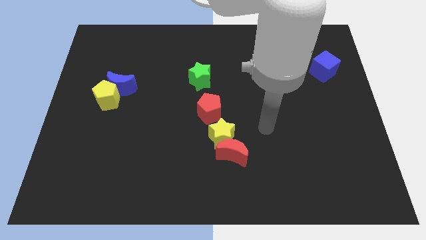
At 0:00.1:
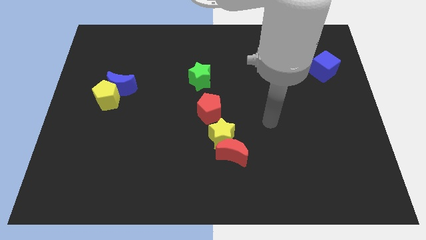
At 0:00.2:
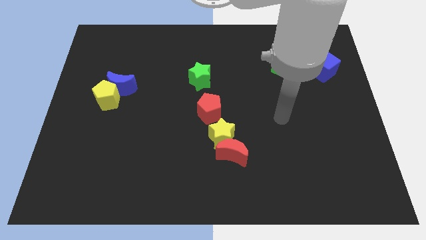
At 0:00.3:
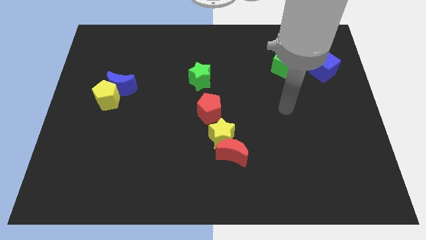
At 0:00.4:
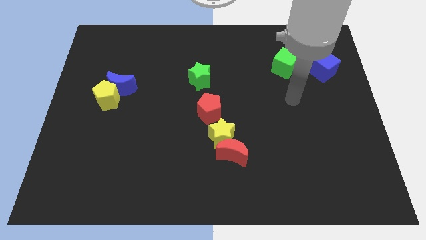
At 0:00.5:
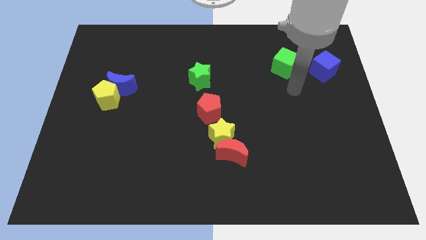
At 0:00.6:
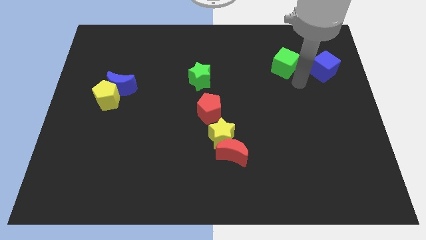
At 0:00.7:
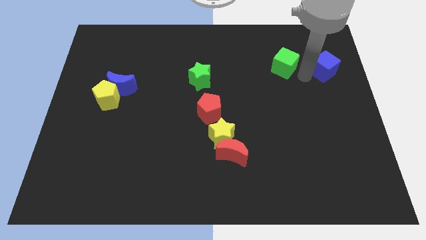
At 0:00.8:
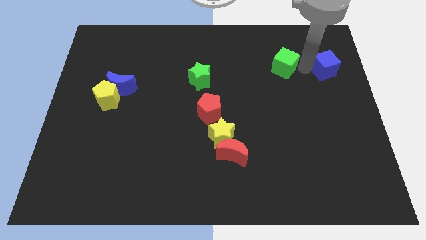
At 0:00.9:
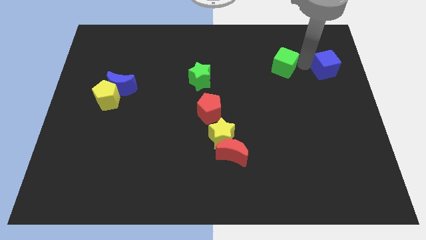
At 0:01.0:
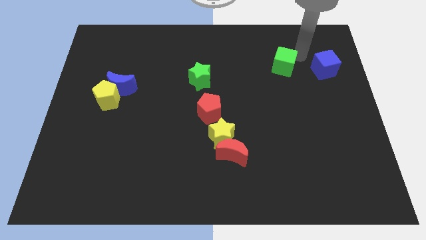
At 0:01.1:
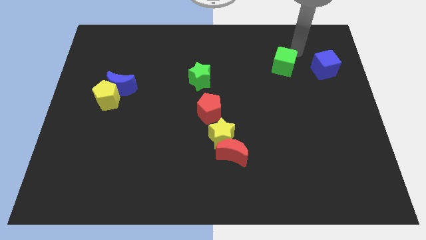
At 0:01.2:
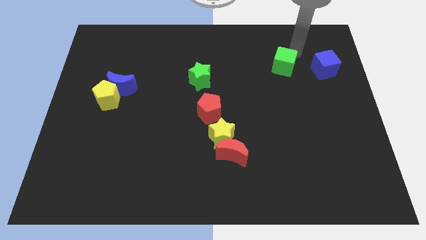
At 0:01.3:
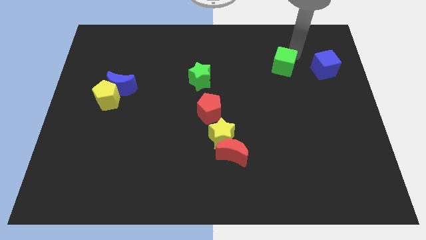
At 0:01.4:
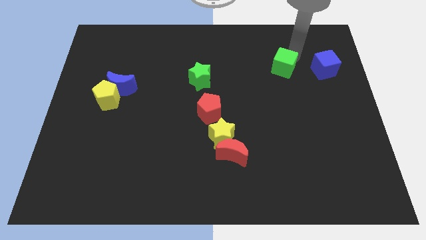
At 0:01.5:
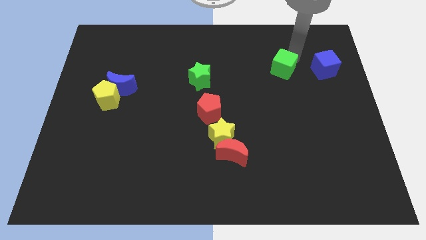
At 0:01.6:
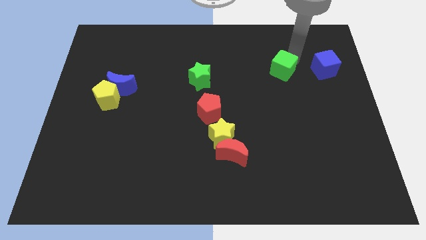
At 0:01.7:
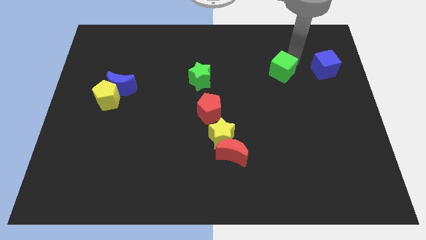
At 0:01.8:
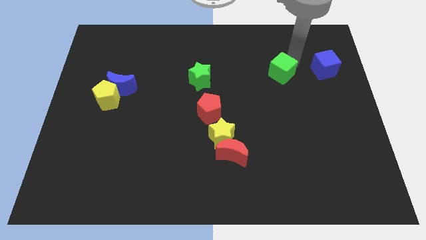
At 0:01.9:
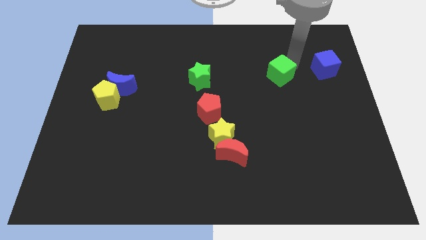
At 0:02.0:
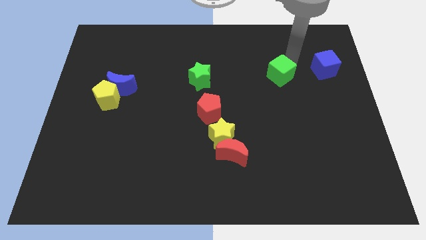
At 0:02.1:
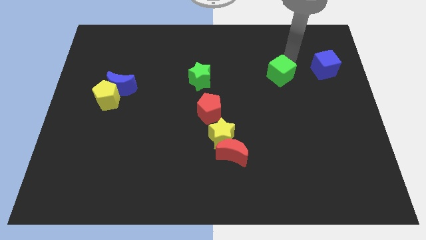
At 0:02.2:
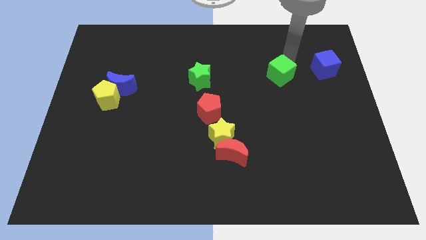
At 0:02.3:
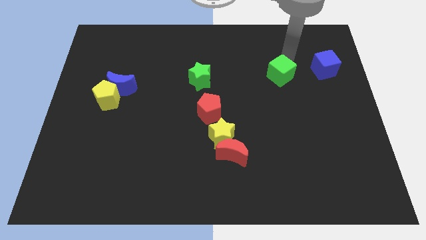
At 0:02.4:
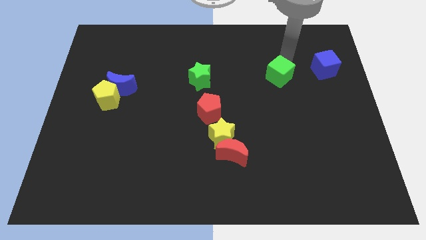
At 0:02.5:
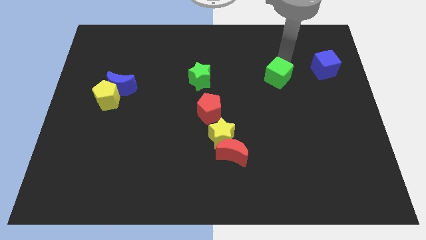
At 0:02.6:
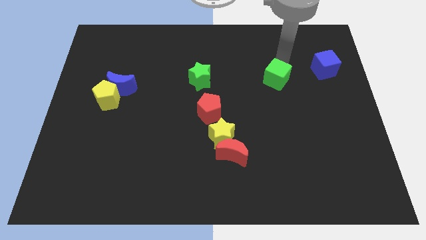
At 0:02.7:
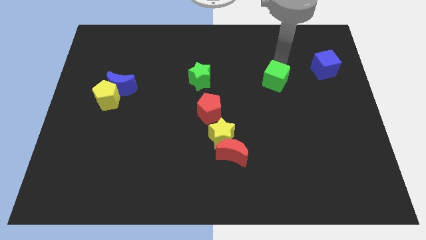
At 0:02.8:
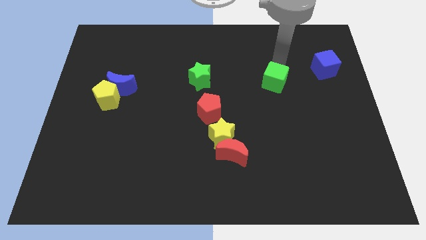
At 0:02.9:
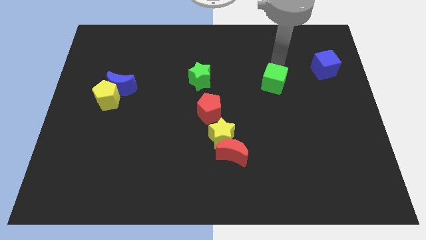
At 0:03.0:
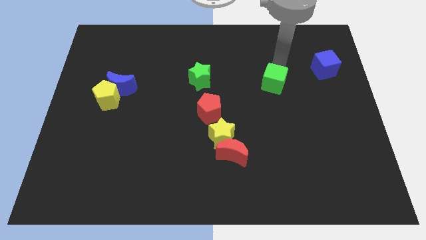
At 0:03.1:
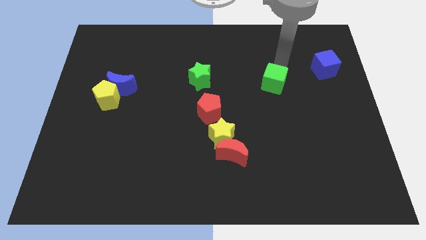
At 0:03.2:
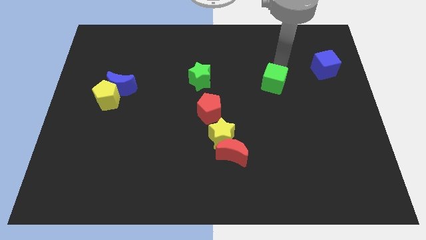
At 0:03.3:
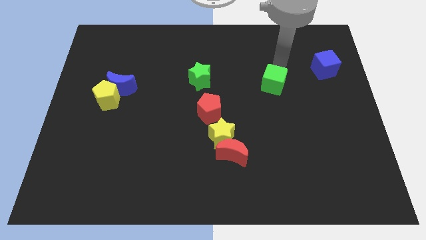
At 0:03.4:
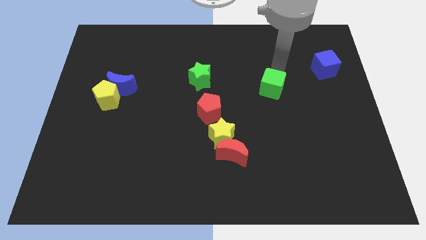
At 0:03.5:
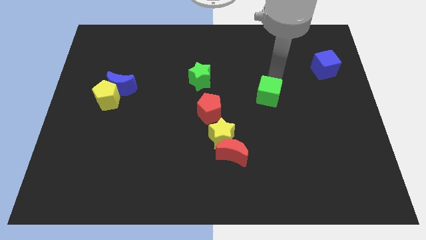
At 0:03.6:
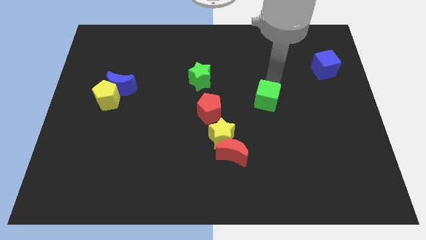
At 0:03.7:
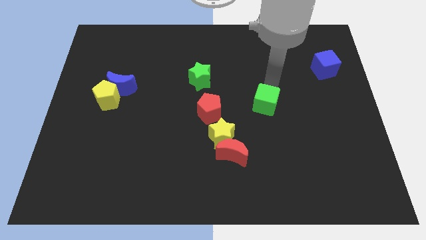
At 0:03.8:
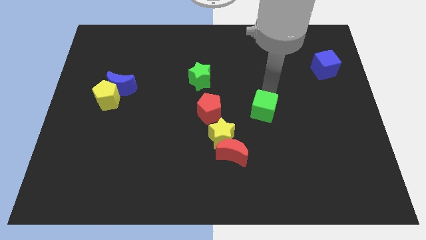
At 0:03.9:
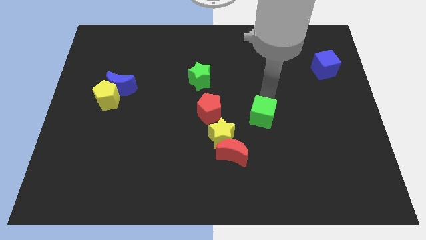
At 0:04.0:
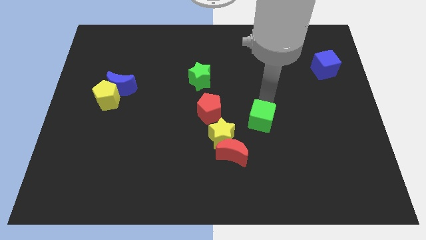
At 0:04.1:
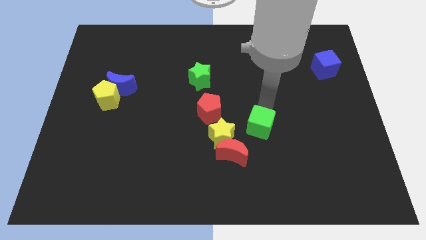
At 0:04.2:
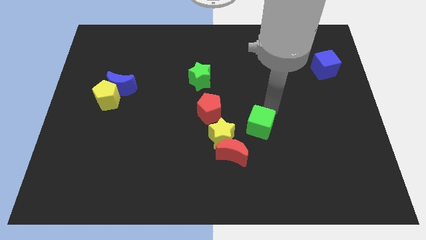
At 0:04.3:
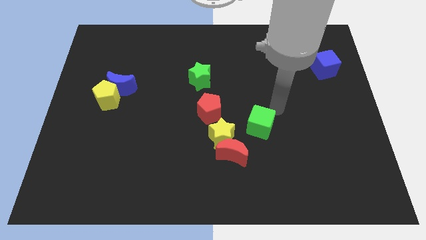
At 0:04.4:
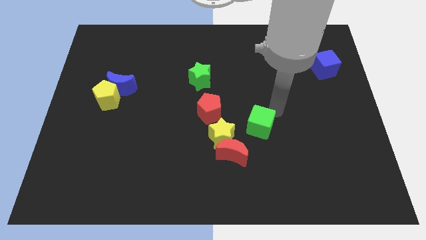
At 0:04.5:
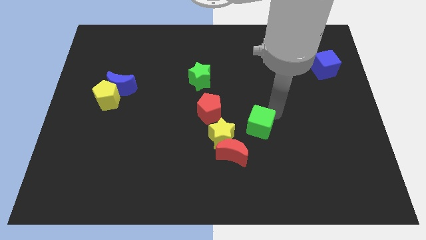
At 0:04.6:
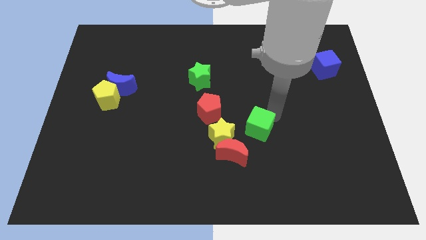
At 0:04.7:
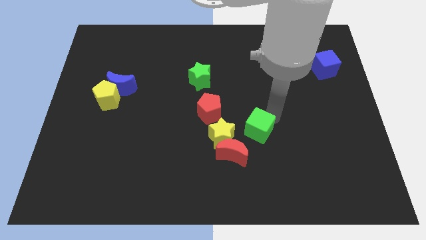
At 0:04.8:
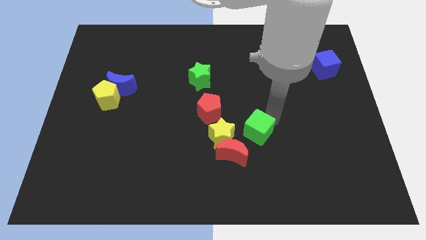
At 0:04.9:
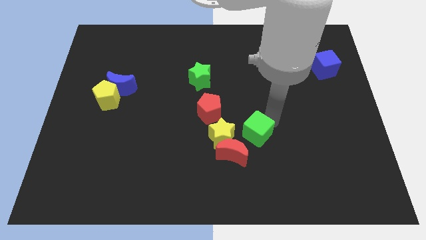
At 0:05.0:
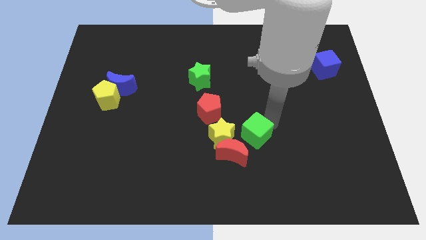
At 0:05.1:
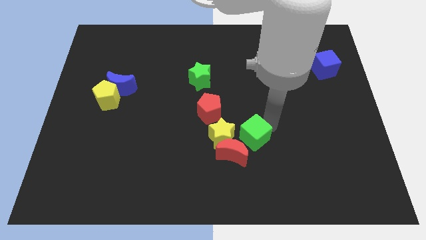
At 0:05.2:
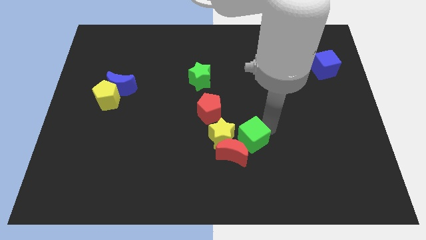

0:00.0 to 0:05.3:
slide the green cube close to the red moon

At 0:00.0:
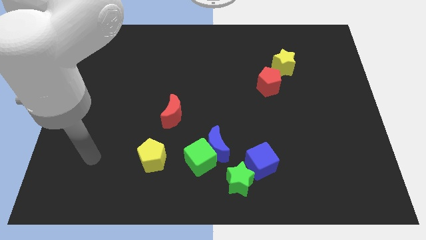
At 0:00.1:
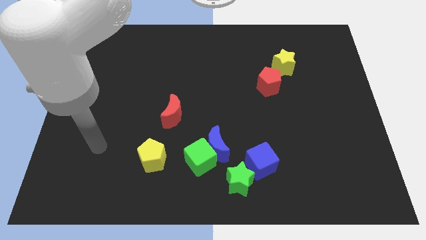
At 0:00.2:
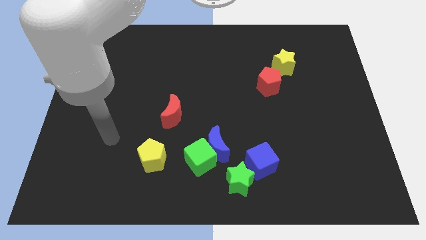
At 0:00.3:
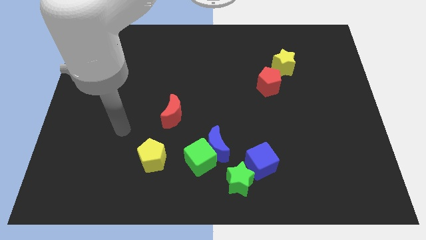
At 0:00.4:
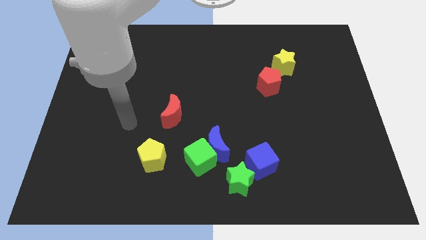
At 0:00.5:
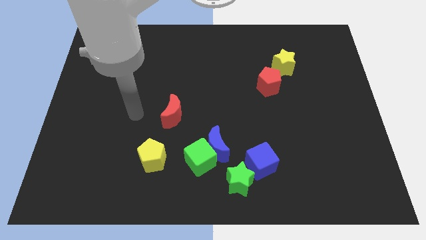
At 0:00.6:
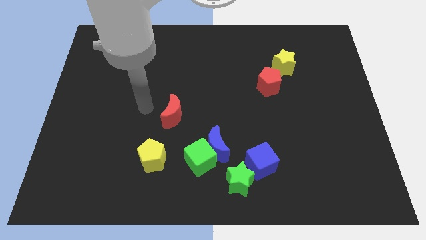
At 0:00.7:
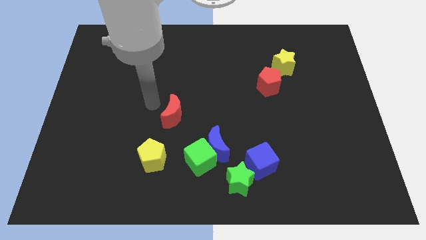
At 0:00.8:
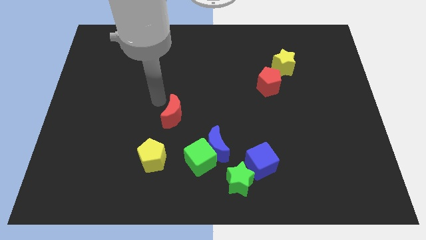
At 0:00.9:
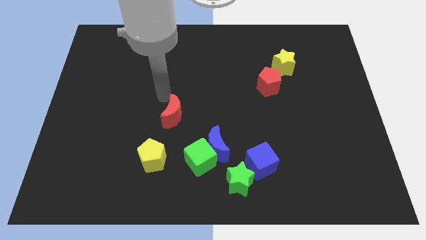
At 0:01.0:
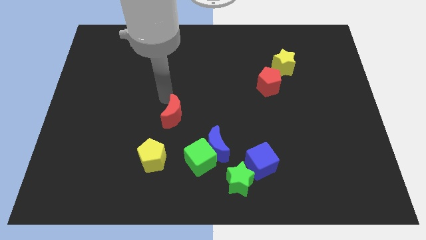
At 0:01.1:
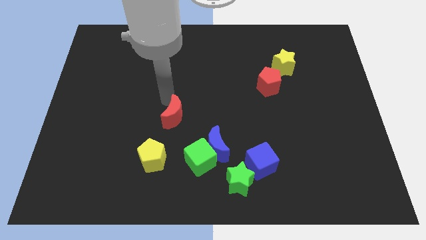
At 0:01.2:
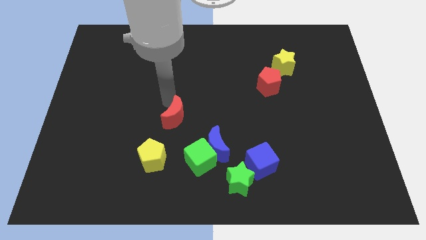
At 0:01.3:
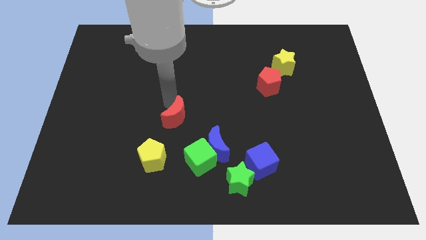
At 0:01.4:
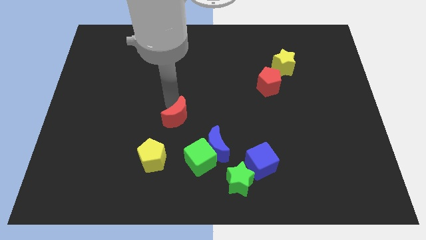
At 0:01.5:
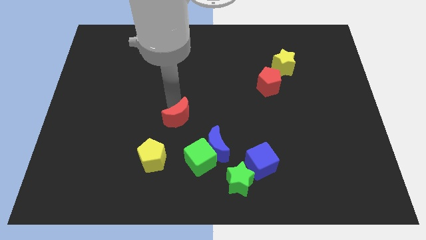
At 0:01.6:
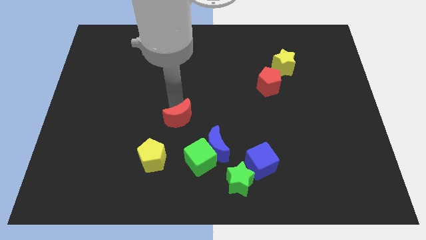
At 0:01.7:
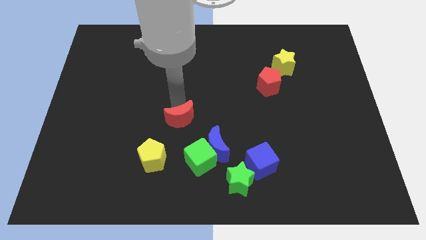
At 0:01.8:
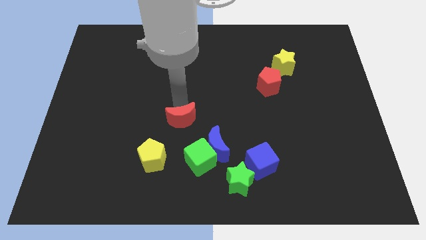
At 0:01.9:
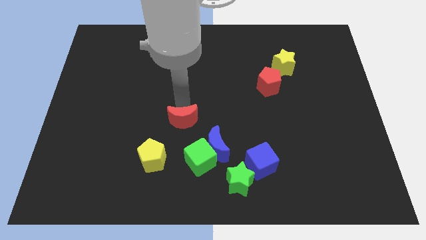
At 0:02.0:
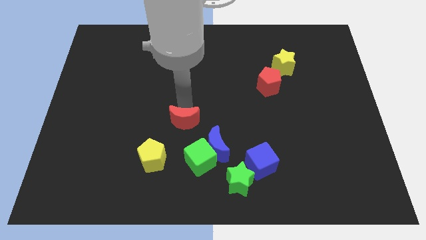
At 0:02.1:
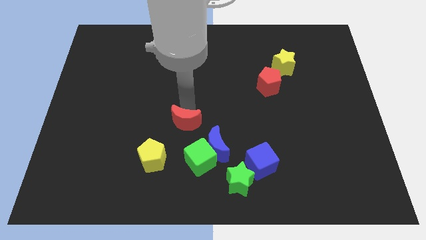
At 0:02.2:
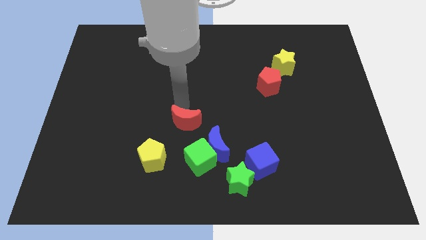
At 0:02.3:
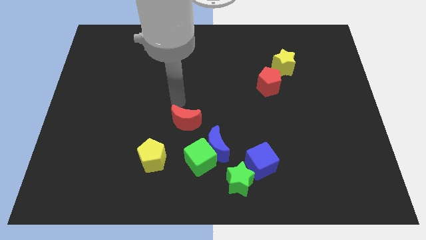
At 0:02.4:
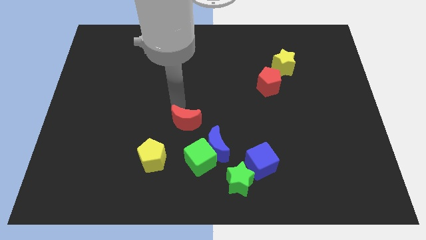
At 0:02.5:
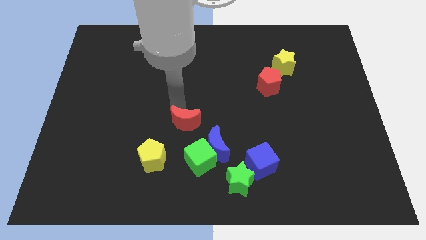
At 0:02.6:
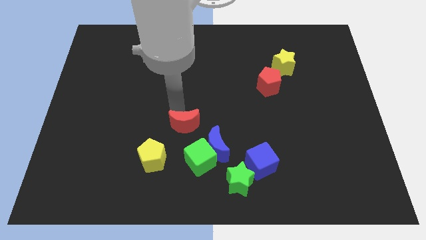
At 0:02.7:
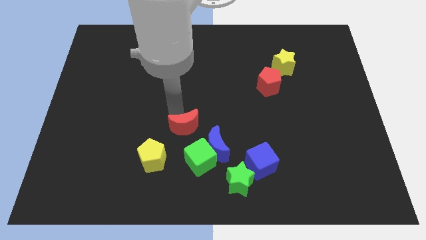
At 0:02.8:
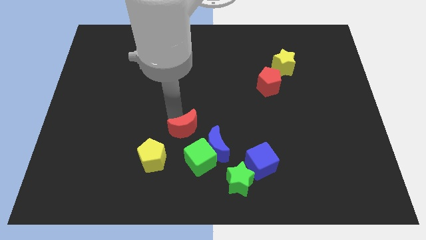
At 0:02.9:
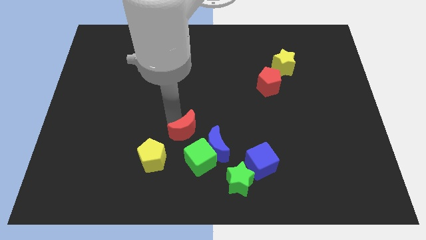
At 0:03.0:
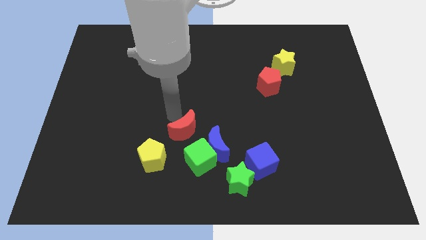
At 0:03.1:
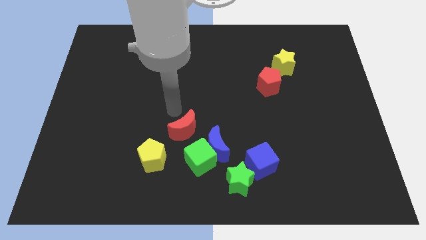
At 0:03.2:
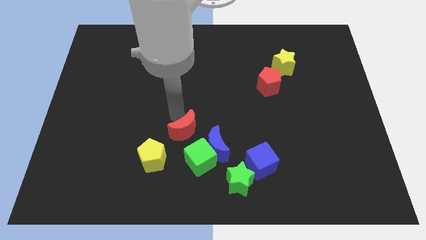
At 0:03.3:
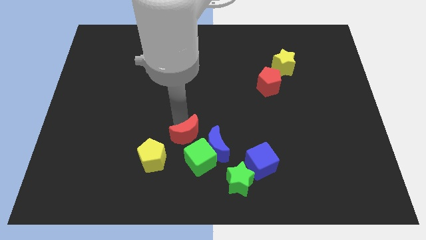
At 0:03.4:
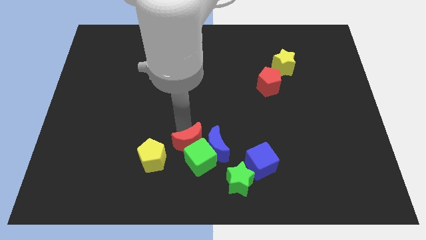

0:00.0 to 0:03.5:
move the red moon towards the green cube
